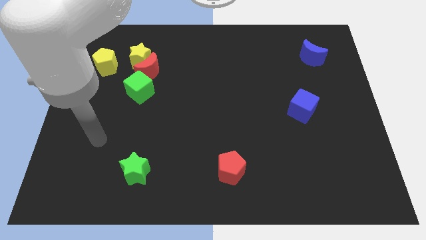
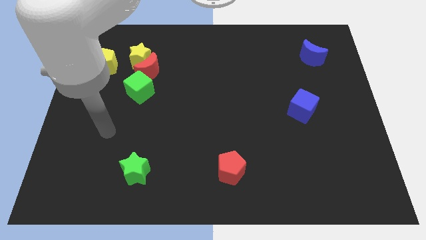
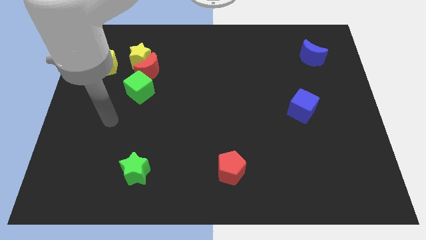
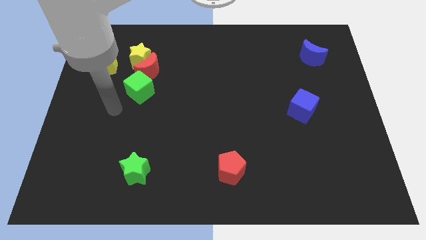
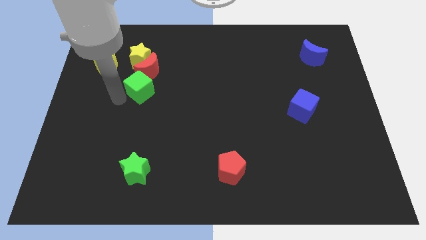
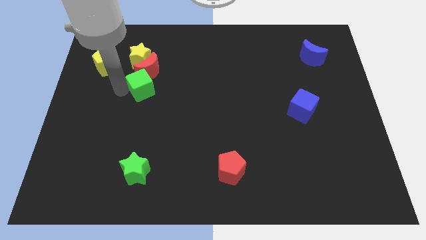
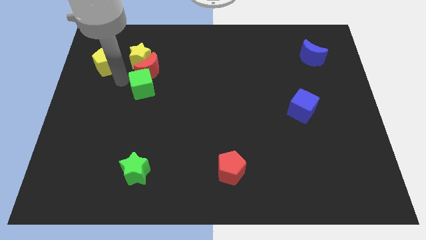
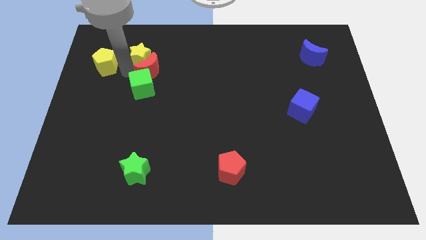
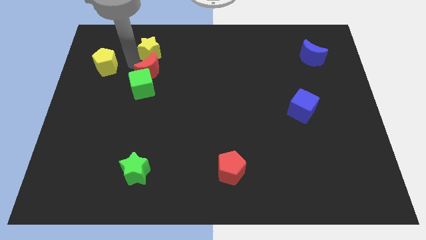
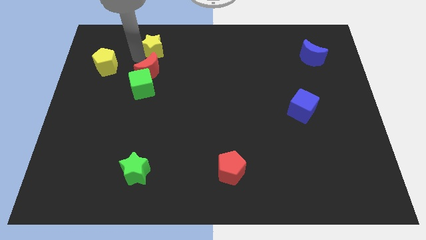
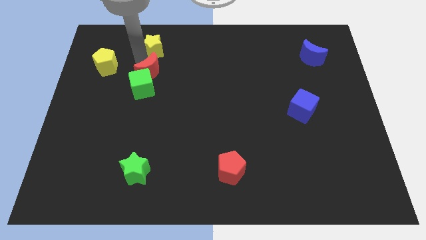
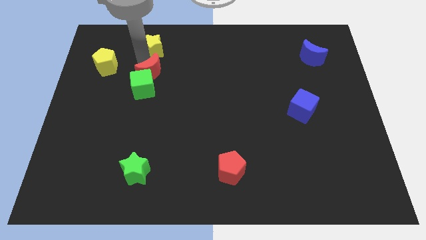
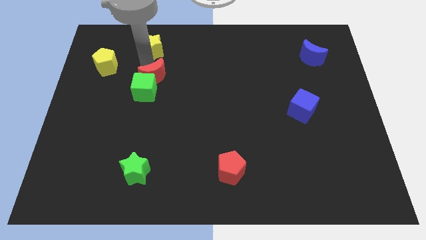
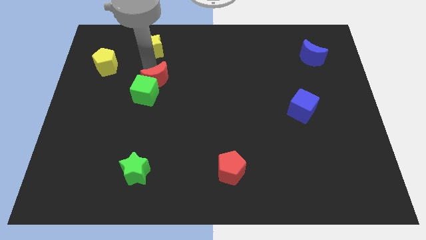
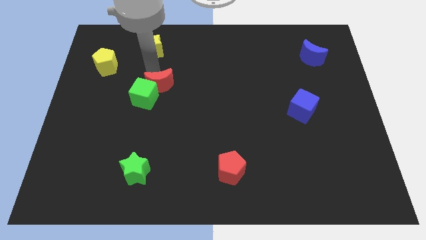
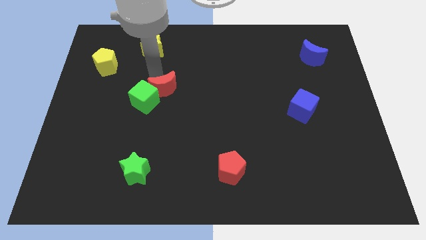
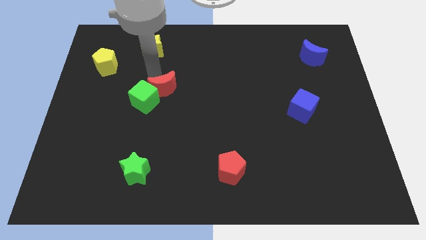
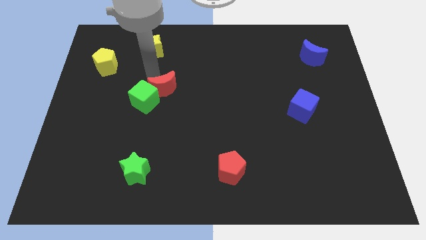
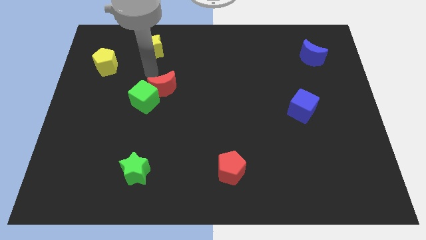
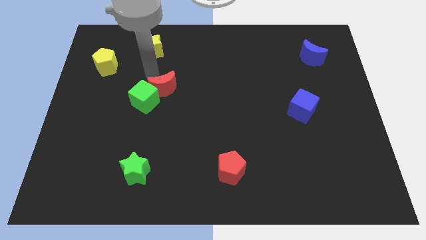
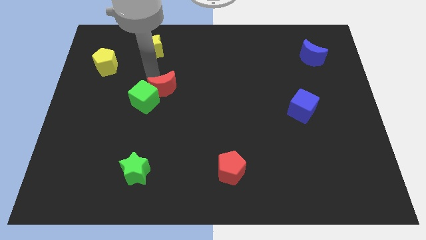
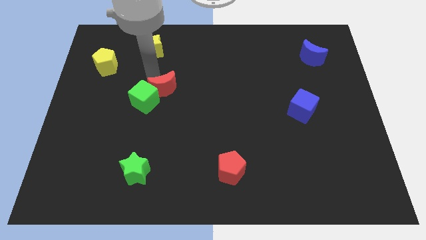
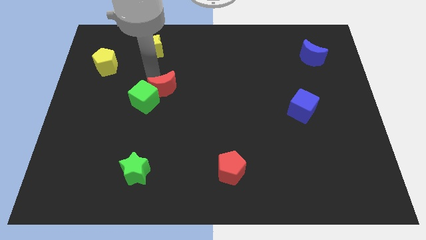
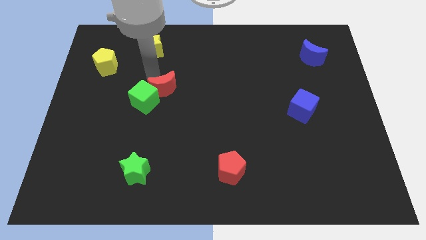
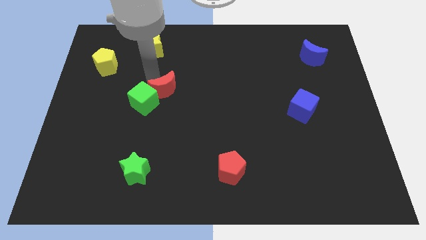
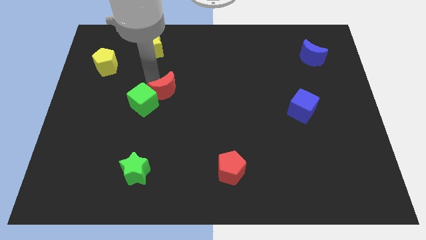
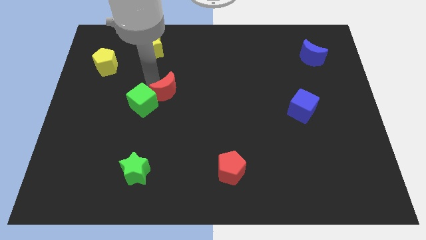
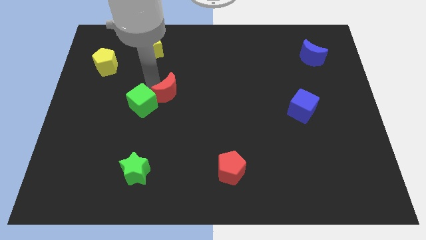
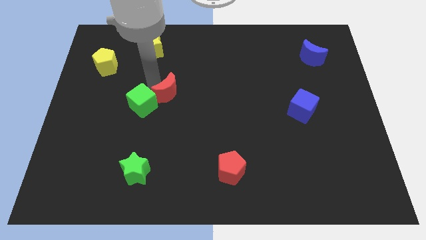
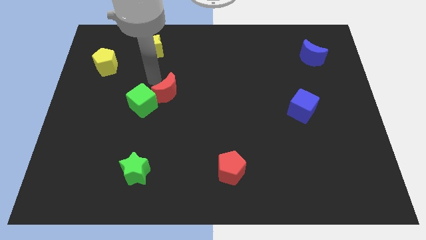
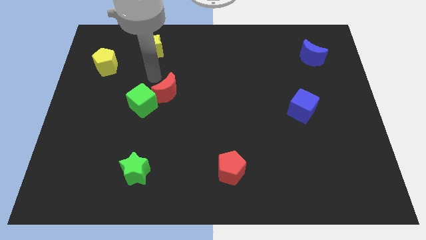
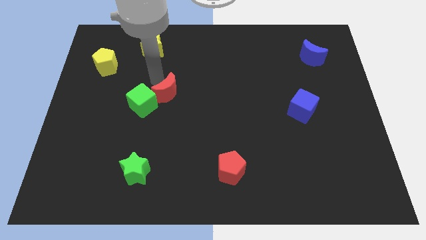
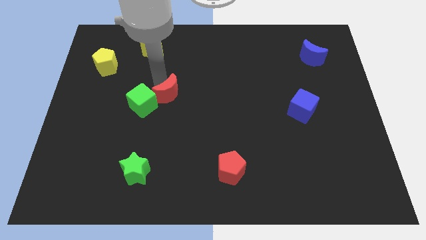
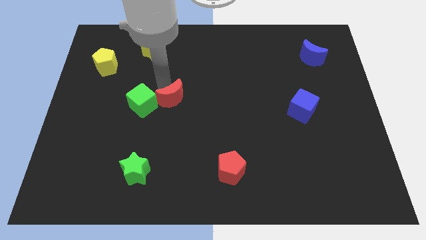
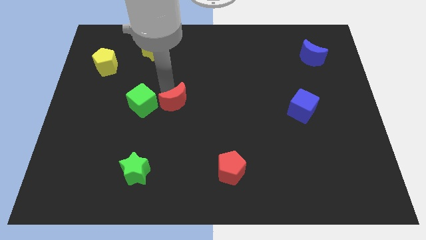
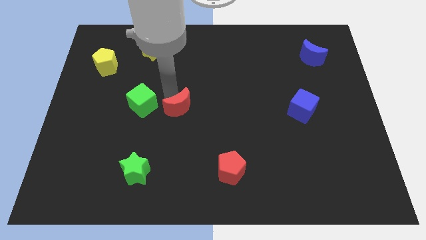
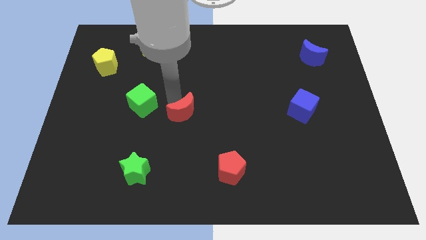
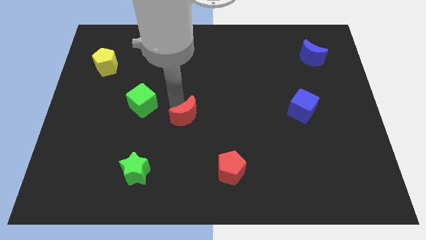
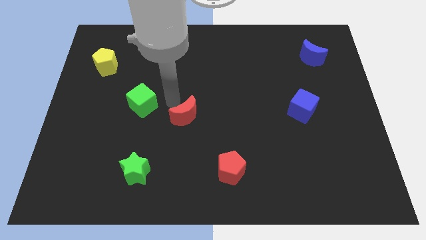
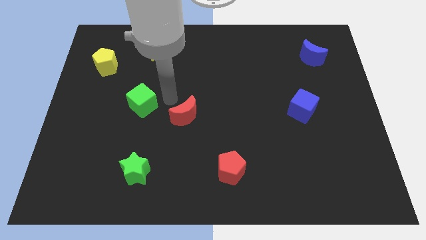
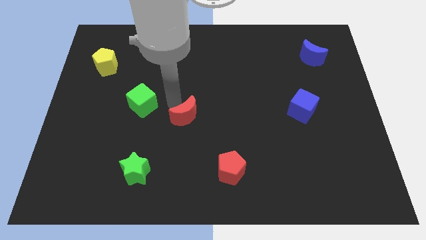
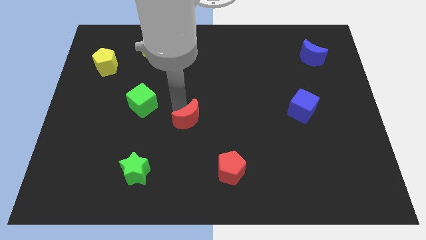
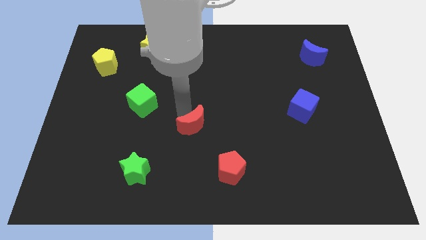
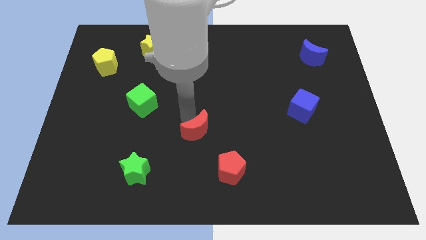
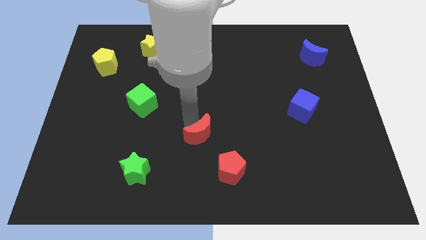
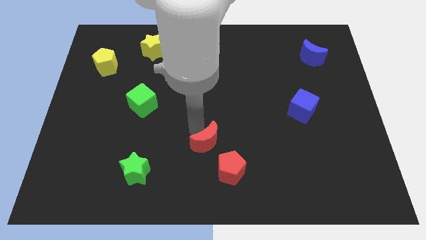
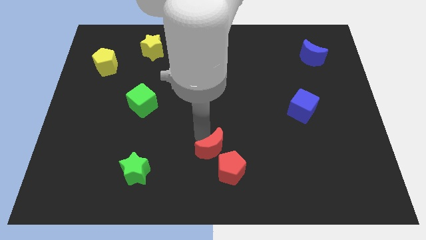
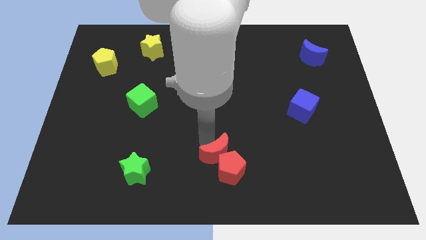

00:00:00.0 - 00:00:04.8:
put the red moon towards the red pentagon

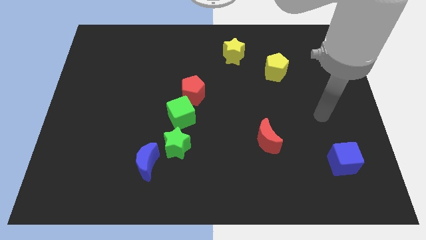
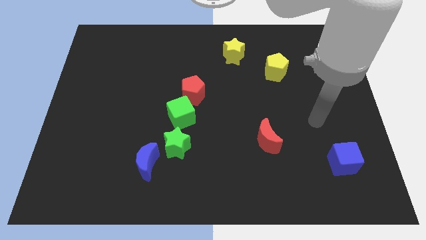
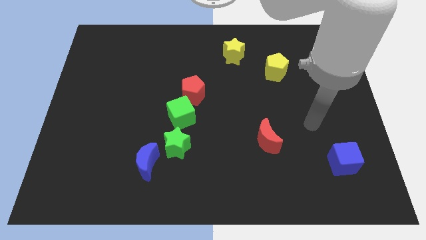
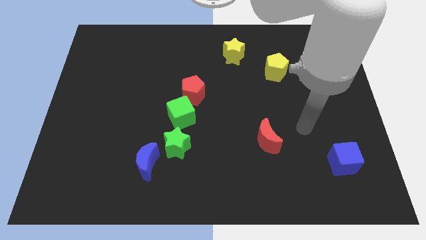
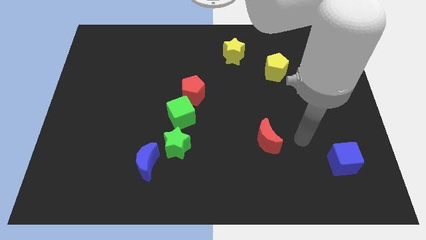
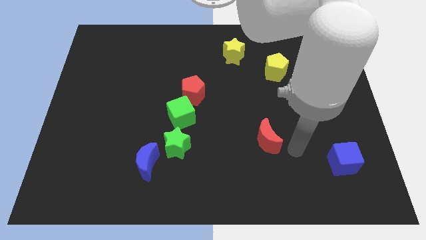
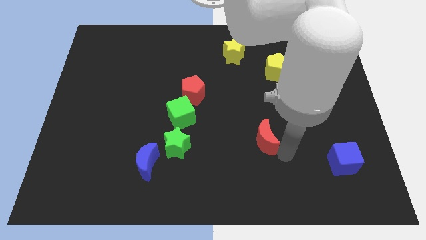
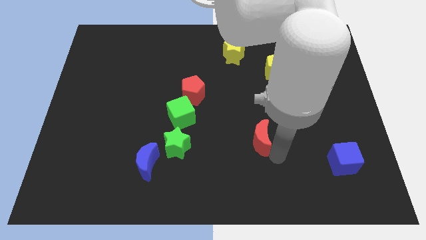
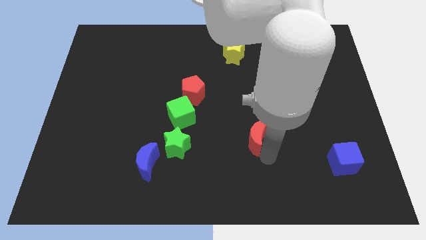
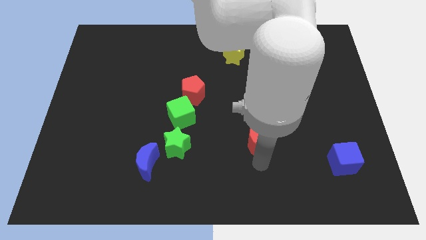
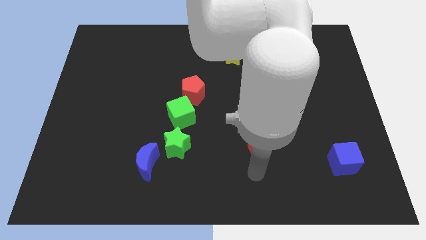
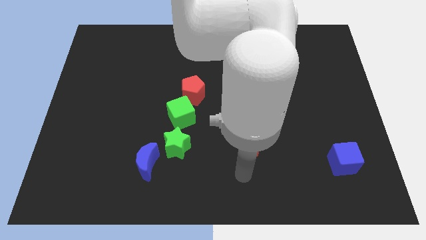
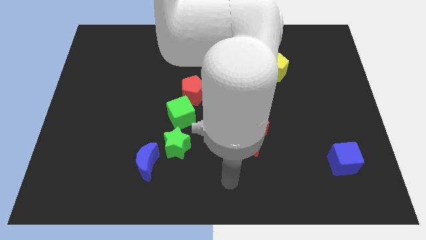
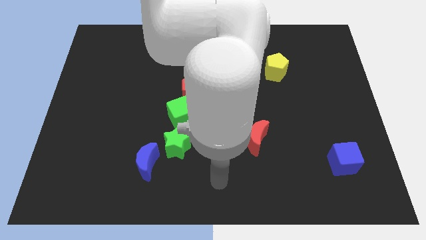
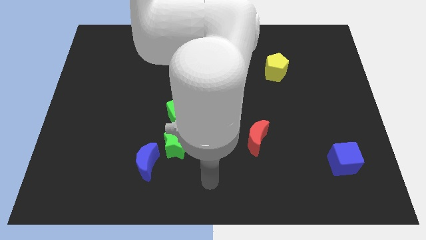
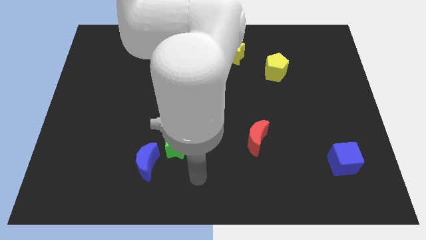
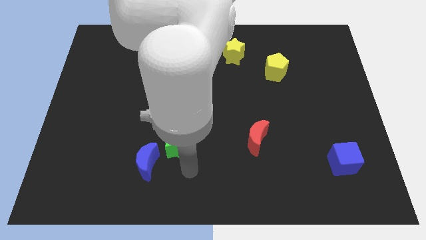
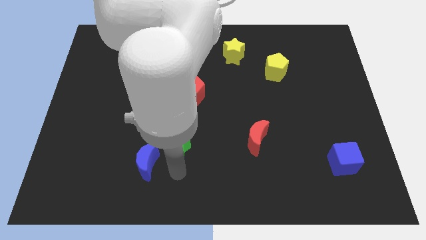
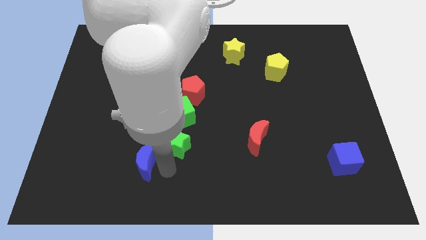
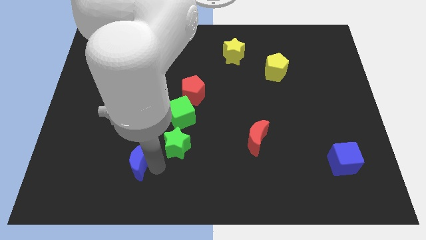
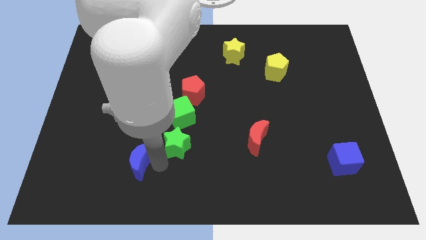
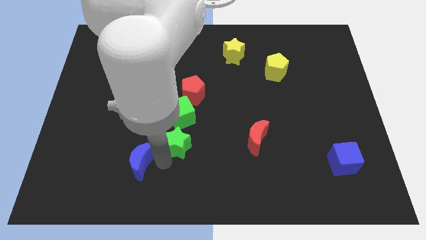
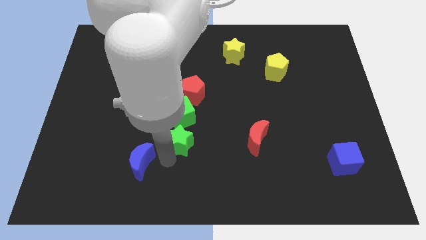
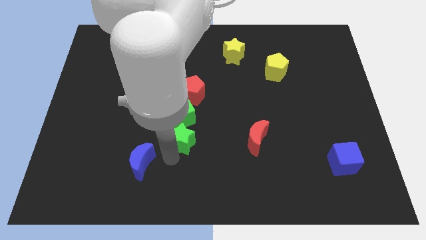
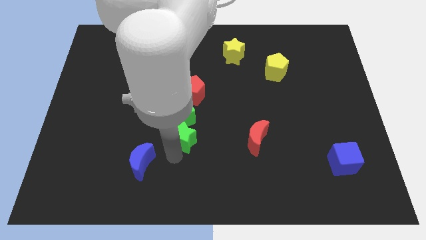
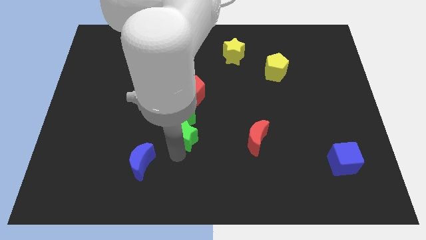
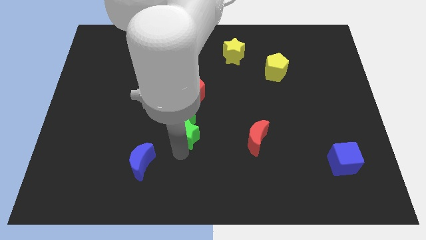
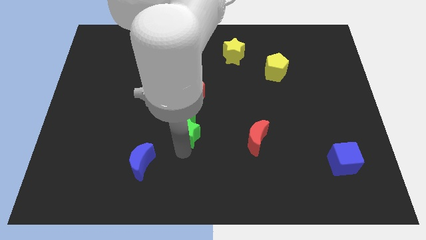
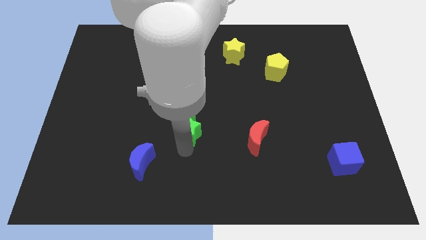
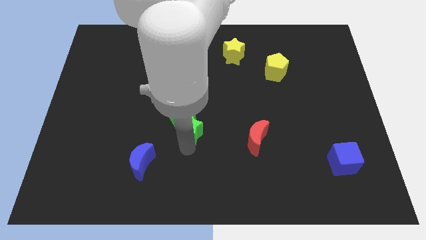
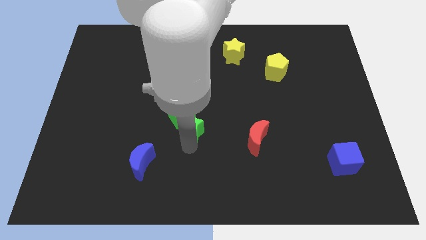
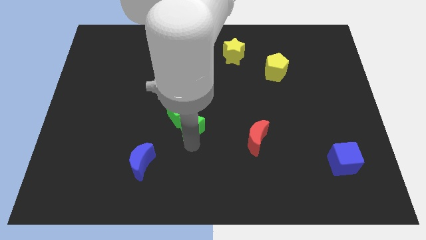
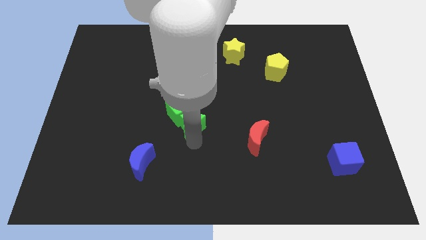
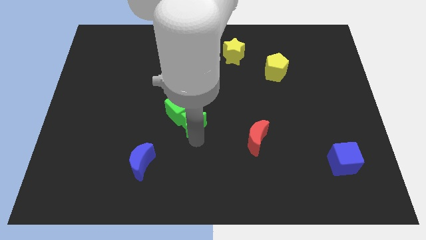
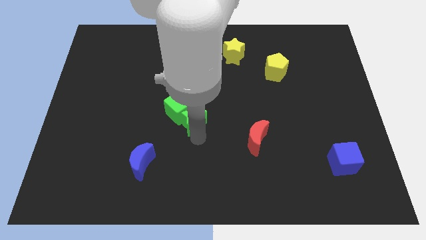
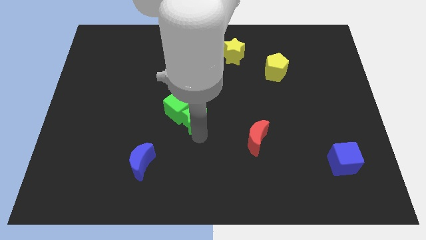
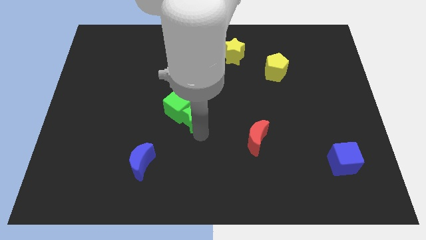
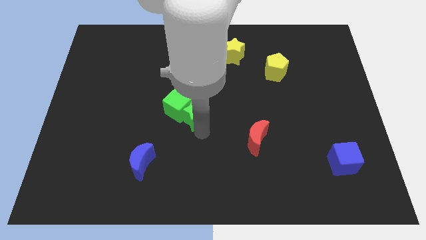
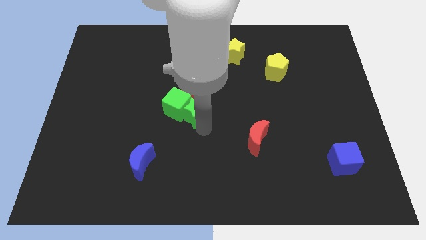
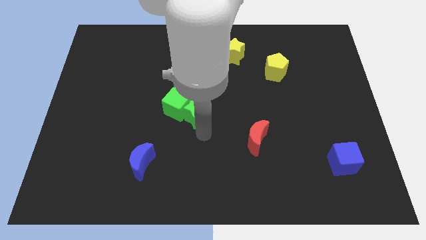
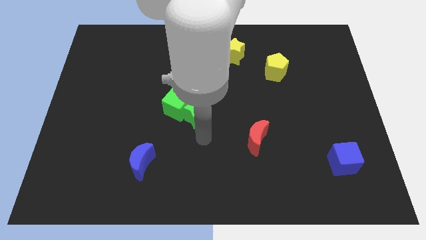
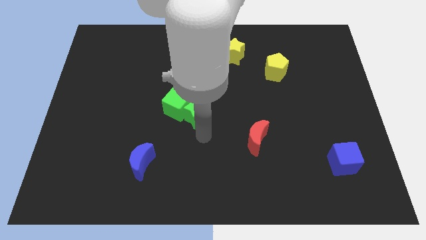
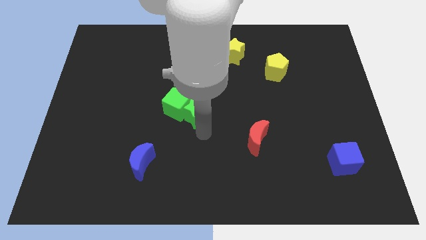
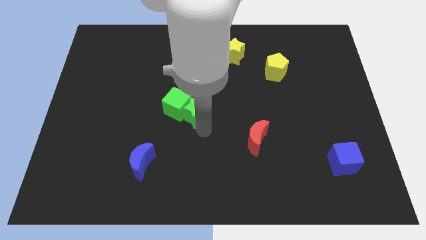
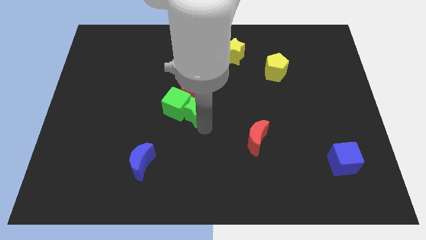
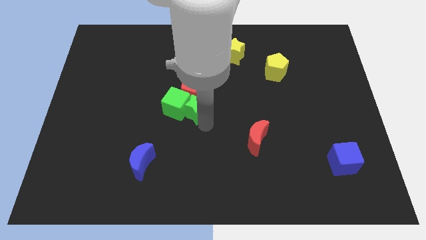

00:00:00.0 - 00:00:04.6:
slide the green star towards the red pentagon
